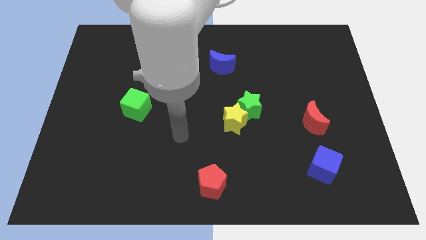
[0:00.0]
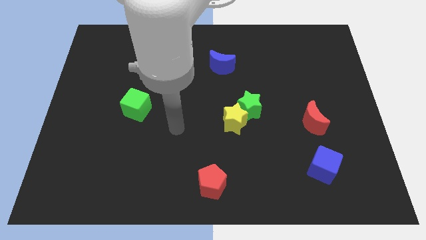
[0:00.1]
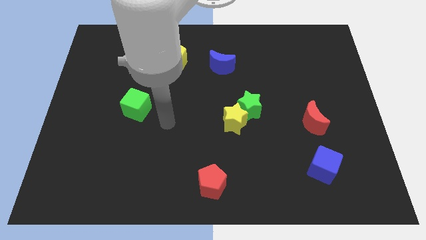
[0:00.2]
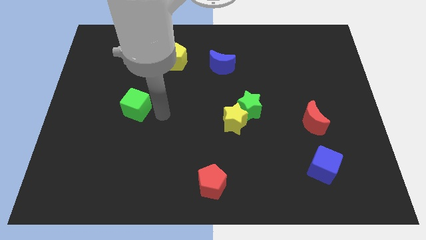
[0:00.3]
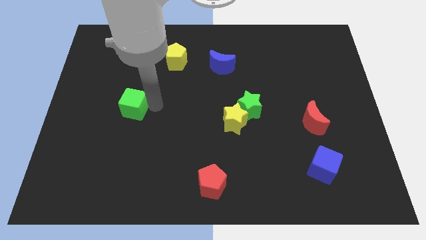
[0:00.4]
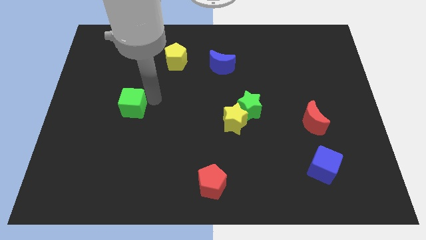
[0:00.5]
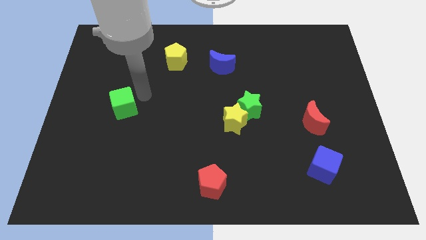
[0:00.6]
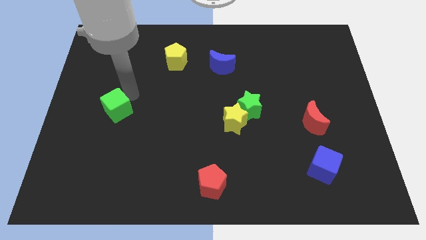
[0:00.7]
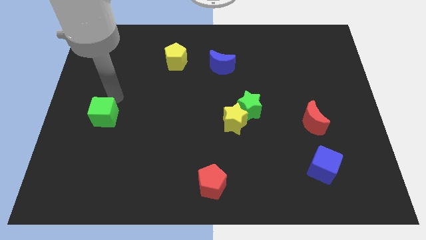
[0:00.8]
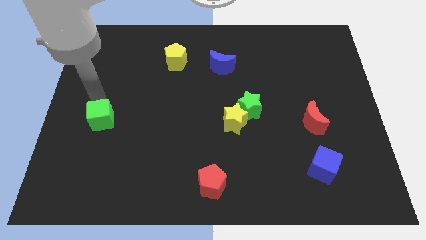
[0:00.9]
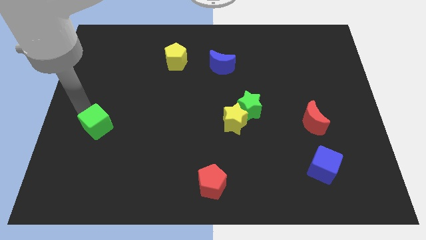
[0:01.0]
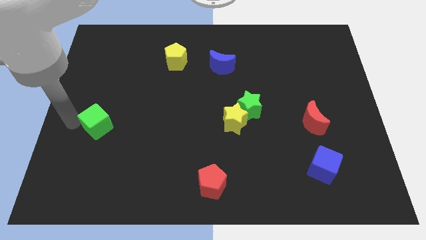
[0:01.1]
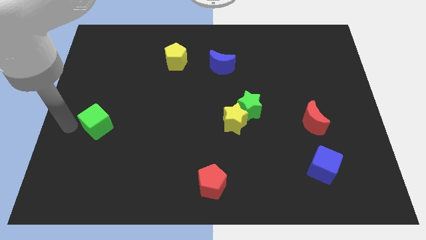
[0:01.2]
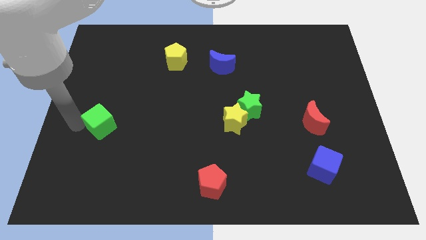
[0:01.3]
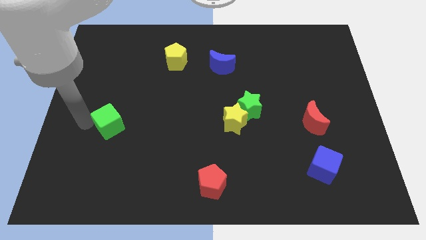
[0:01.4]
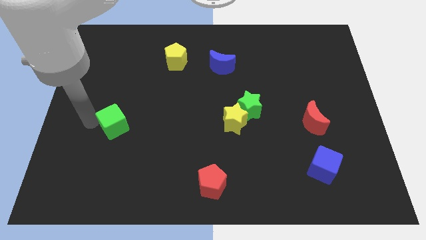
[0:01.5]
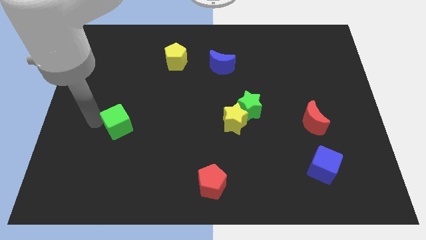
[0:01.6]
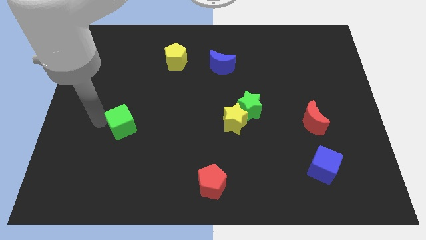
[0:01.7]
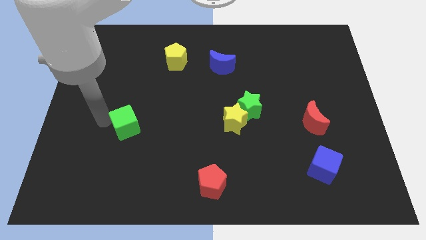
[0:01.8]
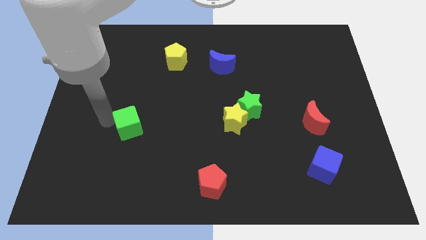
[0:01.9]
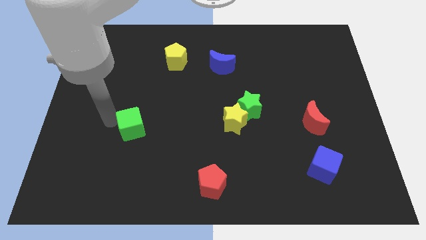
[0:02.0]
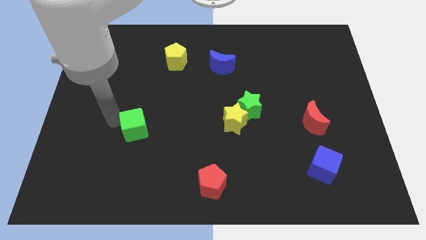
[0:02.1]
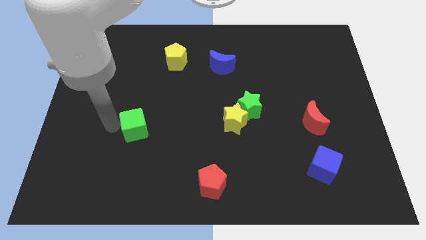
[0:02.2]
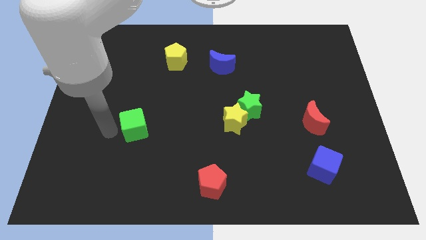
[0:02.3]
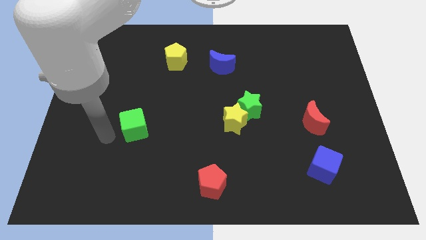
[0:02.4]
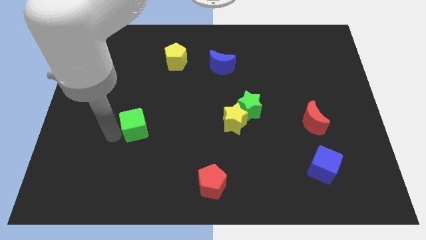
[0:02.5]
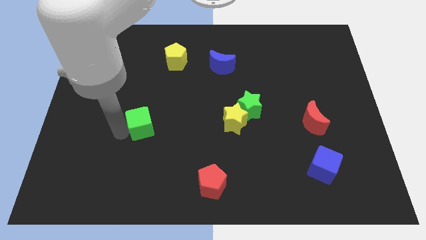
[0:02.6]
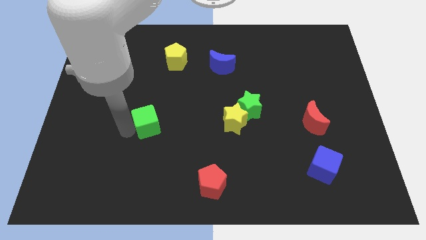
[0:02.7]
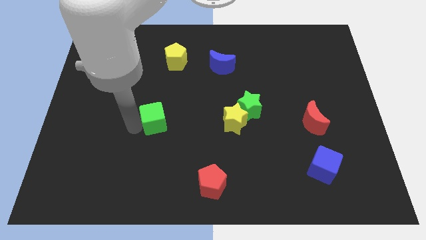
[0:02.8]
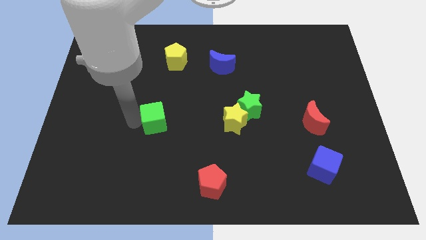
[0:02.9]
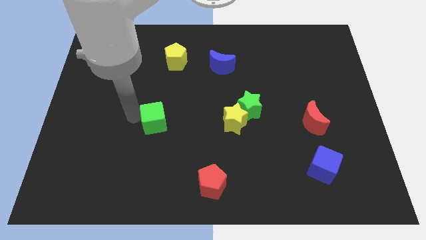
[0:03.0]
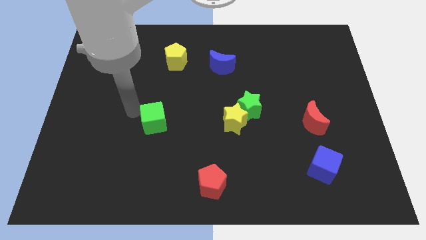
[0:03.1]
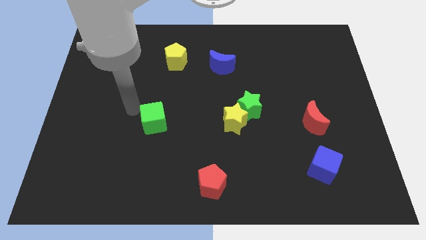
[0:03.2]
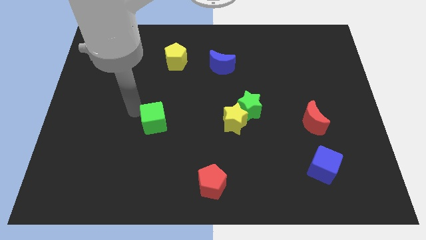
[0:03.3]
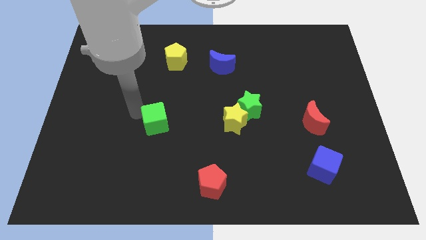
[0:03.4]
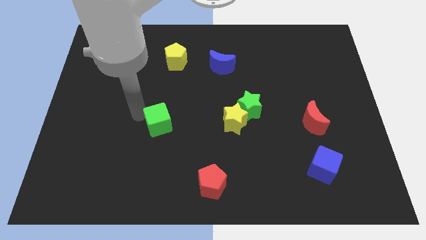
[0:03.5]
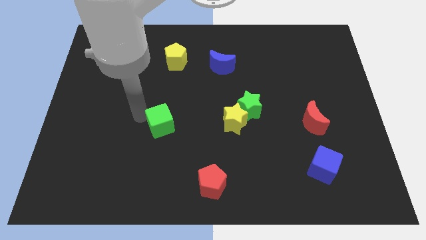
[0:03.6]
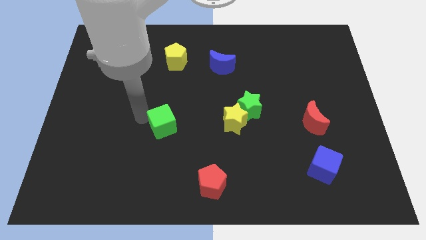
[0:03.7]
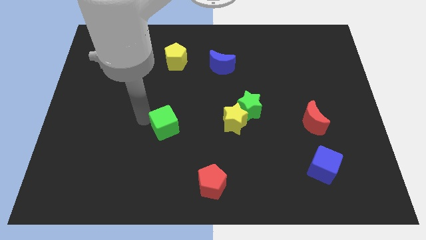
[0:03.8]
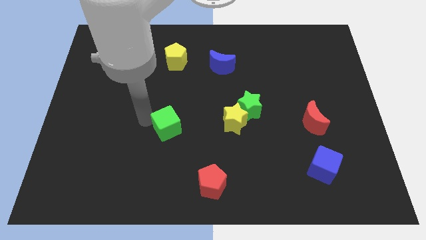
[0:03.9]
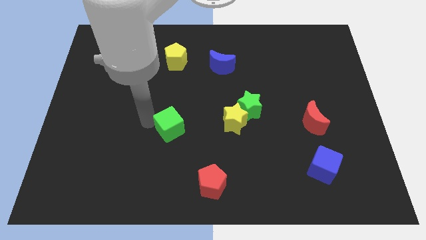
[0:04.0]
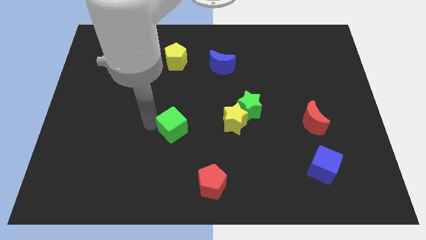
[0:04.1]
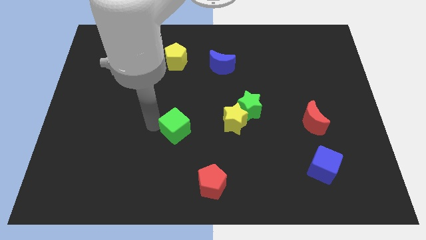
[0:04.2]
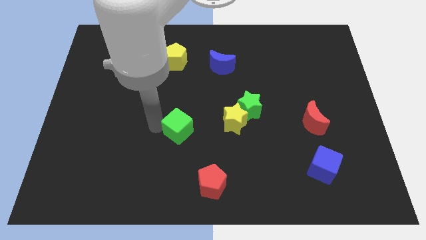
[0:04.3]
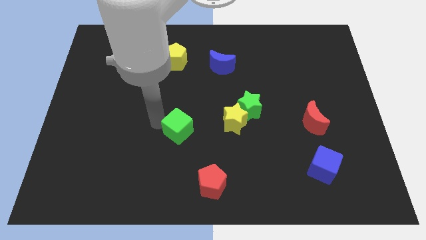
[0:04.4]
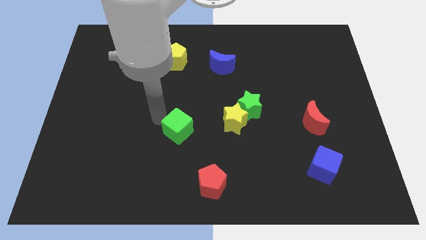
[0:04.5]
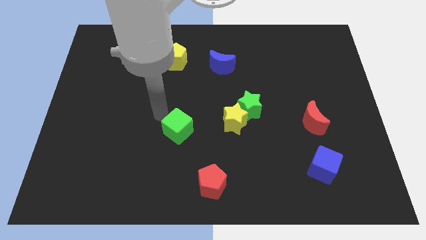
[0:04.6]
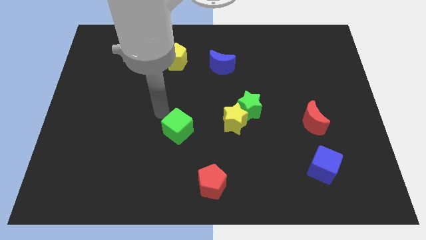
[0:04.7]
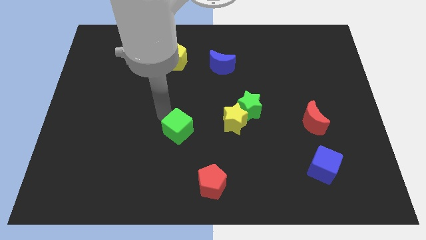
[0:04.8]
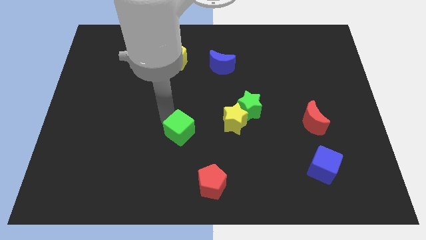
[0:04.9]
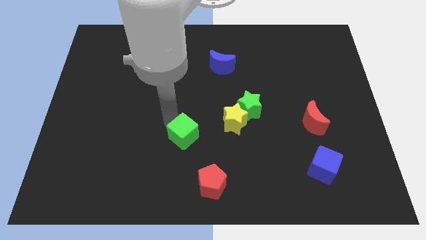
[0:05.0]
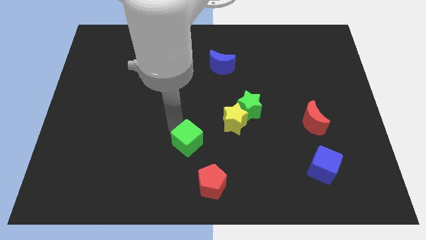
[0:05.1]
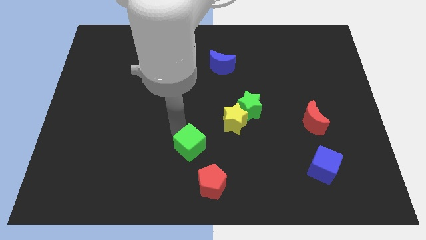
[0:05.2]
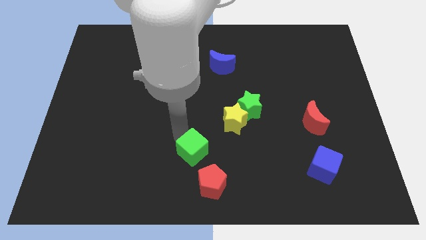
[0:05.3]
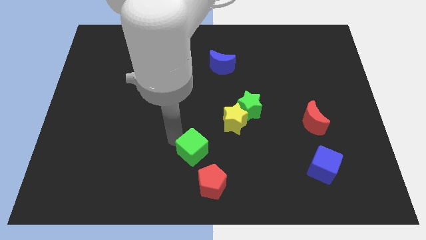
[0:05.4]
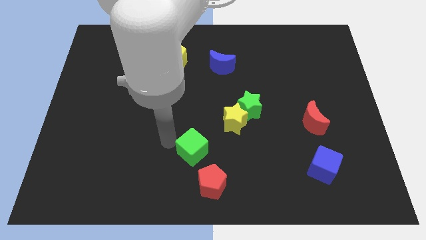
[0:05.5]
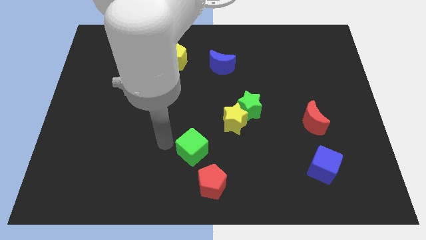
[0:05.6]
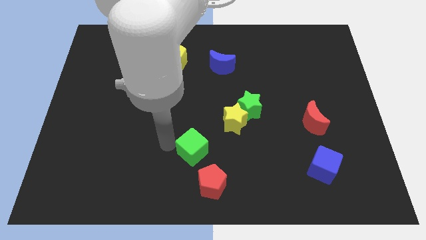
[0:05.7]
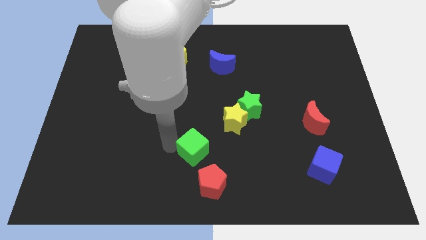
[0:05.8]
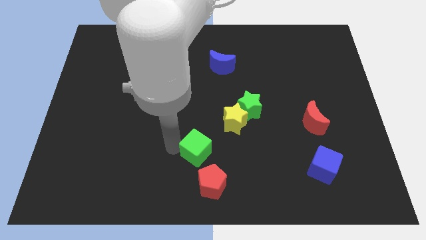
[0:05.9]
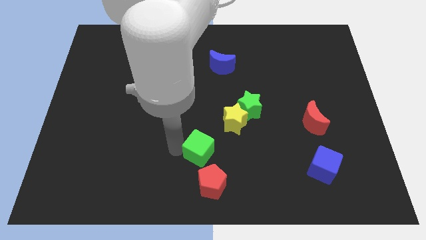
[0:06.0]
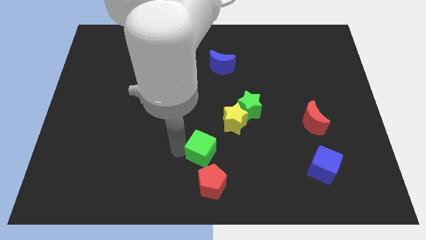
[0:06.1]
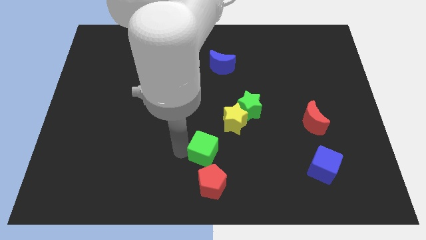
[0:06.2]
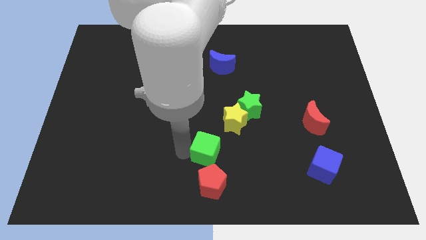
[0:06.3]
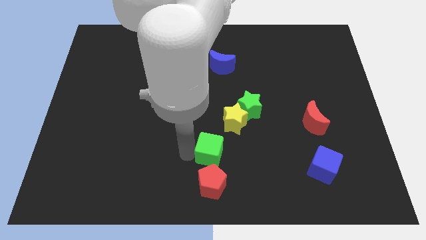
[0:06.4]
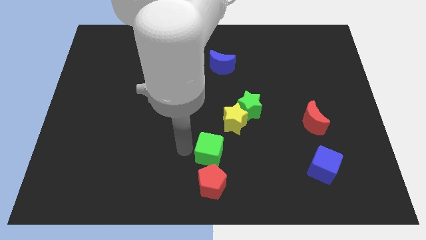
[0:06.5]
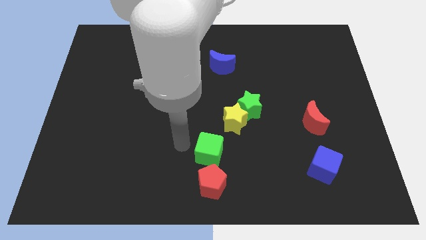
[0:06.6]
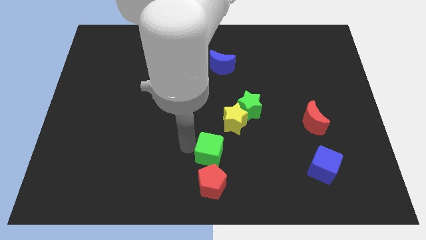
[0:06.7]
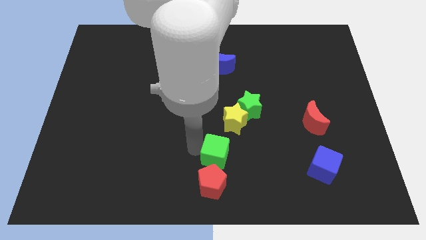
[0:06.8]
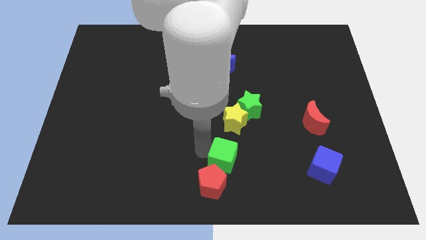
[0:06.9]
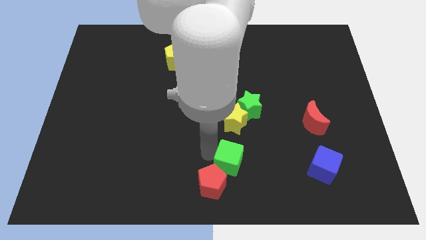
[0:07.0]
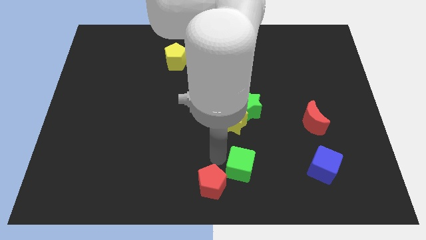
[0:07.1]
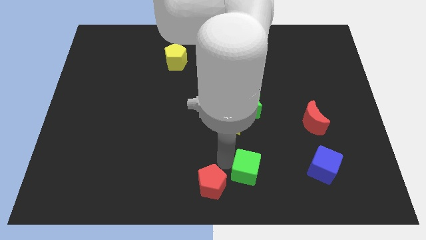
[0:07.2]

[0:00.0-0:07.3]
push the green cube just left of the blue cube

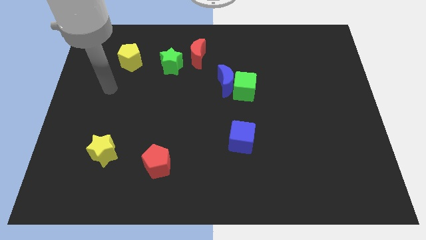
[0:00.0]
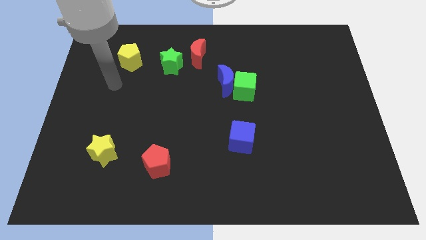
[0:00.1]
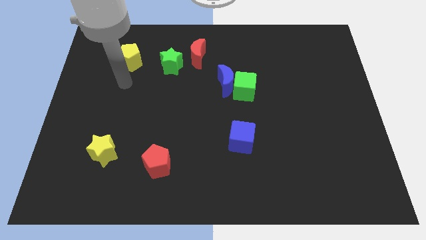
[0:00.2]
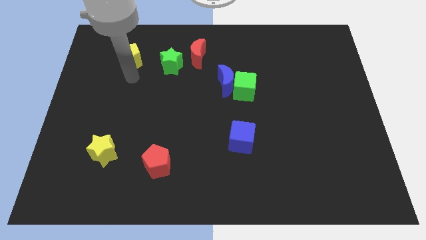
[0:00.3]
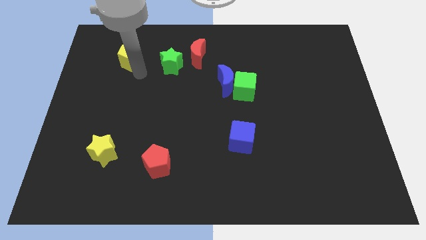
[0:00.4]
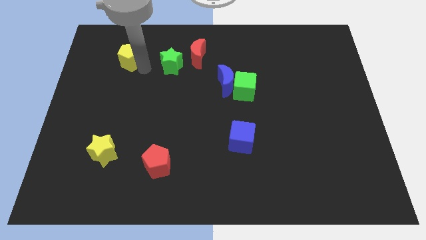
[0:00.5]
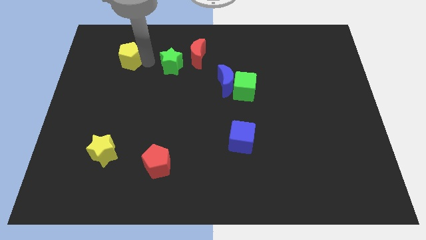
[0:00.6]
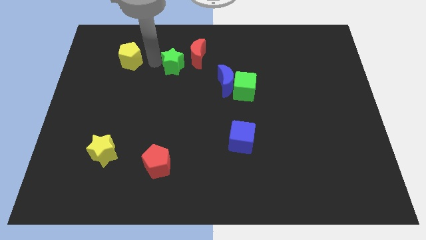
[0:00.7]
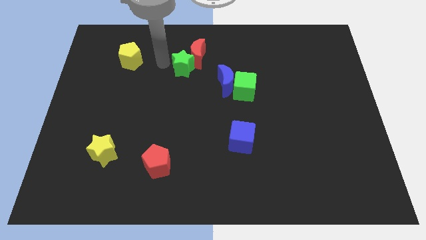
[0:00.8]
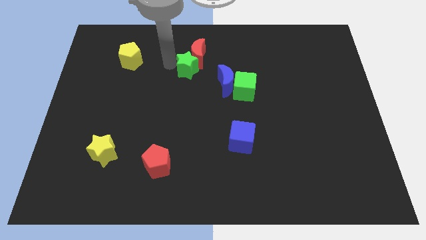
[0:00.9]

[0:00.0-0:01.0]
push the green star diagonally up and to the left of the blue moon
